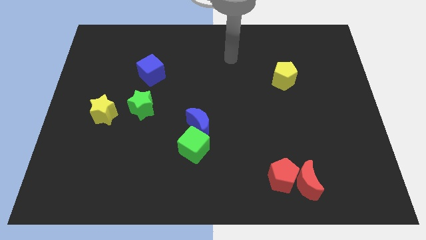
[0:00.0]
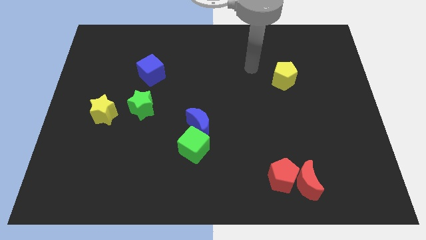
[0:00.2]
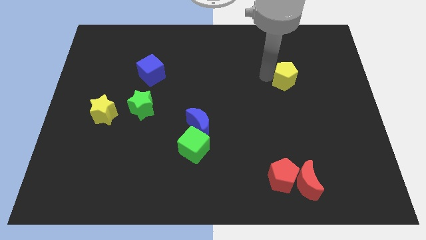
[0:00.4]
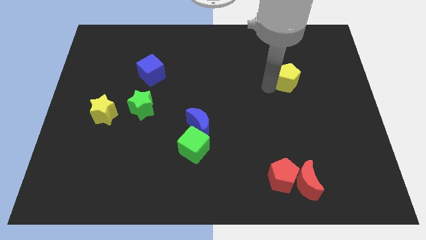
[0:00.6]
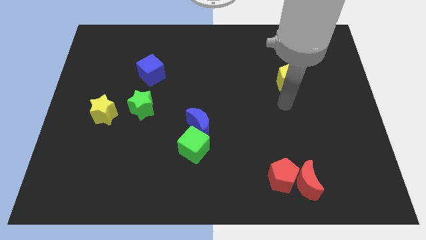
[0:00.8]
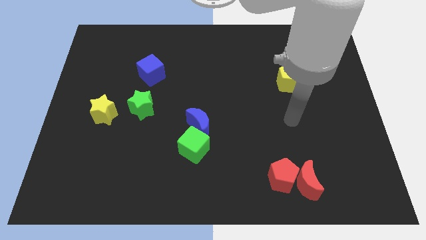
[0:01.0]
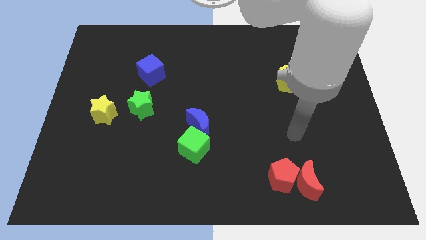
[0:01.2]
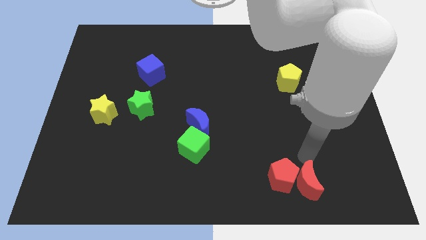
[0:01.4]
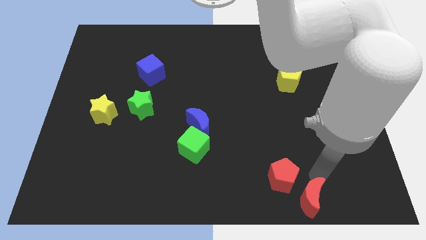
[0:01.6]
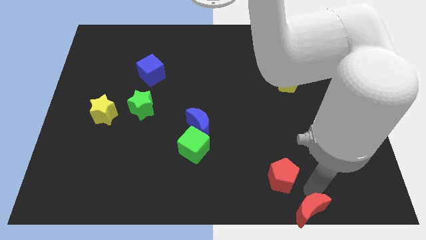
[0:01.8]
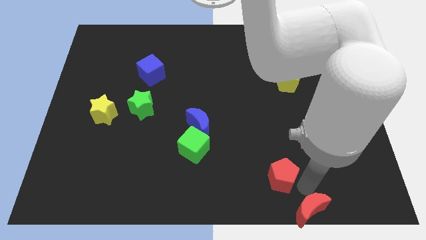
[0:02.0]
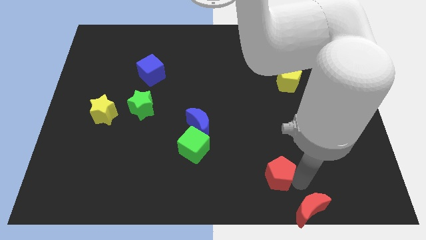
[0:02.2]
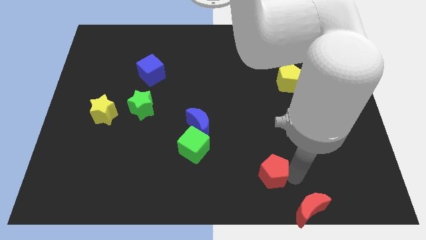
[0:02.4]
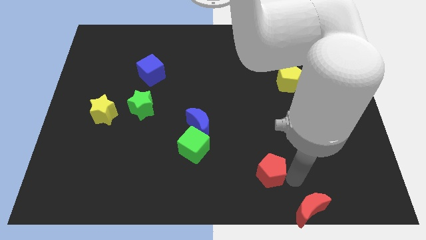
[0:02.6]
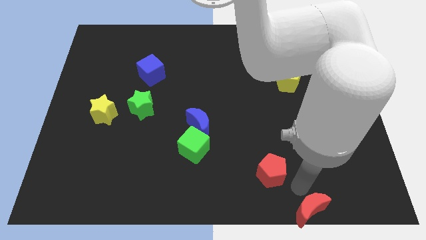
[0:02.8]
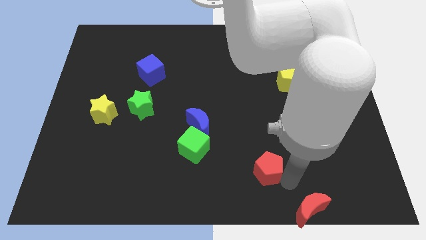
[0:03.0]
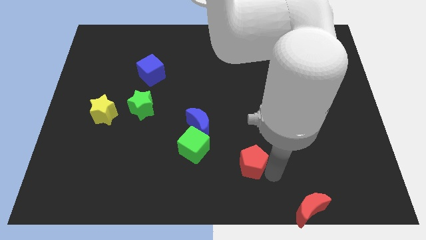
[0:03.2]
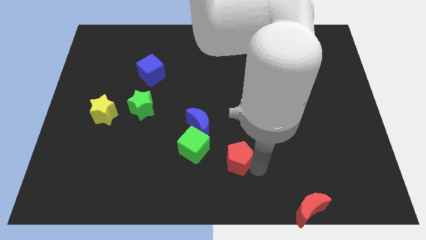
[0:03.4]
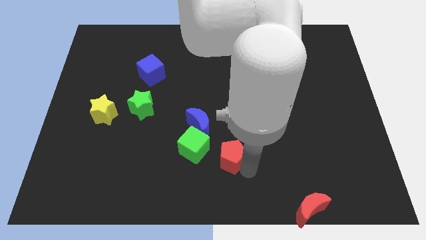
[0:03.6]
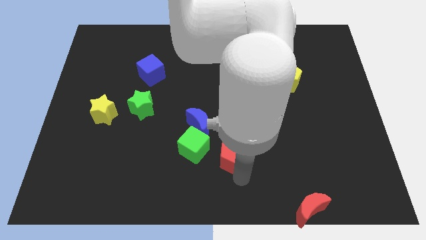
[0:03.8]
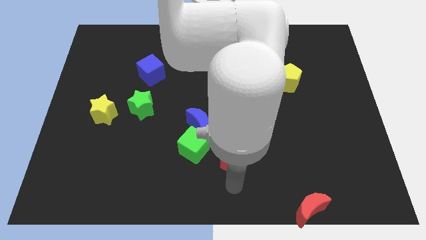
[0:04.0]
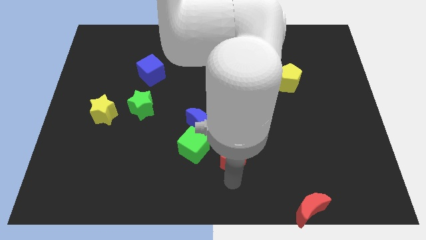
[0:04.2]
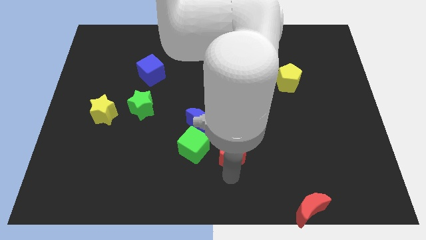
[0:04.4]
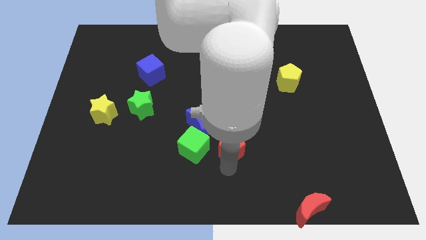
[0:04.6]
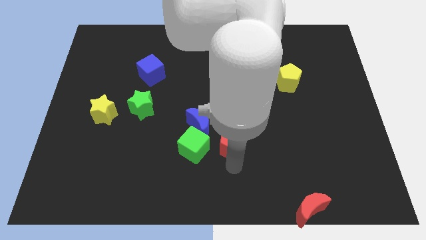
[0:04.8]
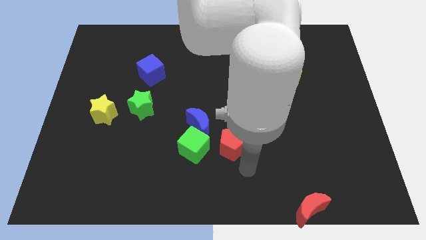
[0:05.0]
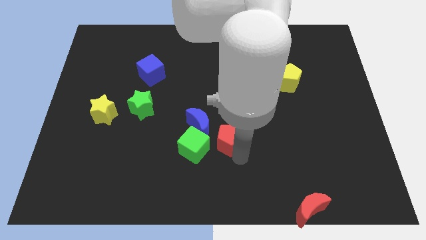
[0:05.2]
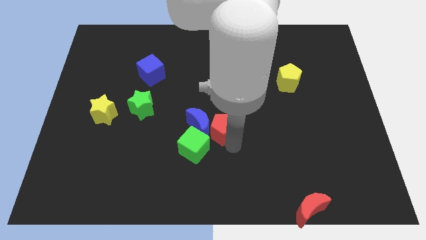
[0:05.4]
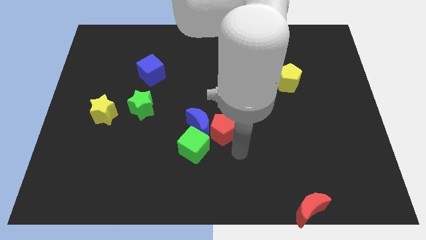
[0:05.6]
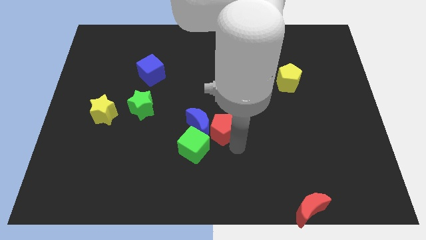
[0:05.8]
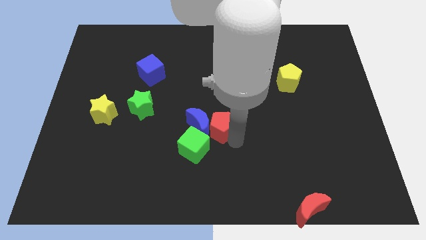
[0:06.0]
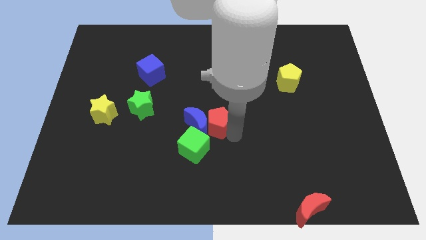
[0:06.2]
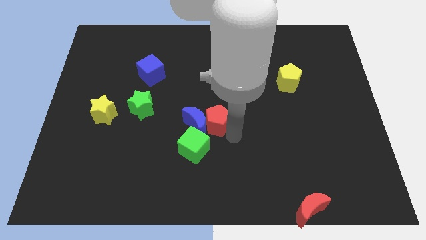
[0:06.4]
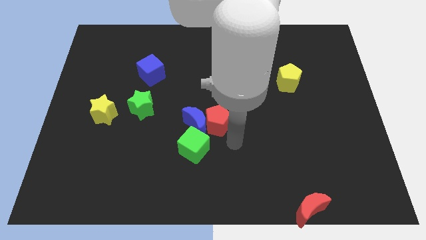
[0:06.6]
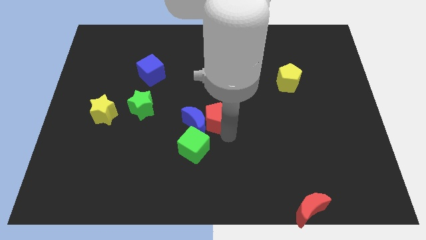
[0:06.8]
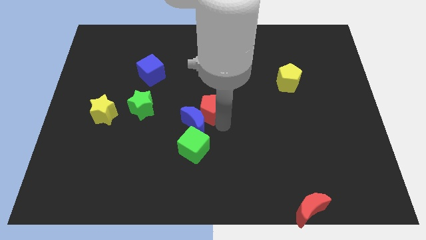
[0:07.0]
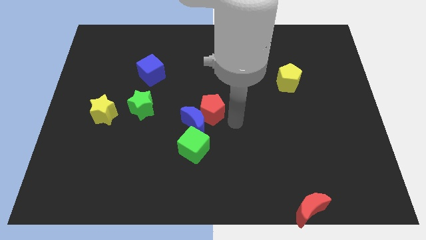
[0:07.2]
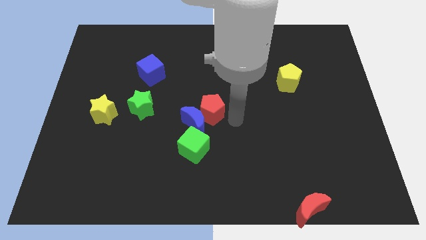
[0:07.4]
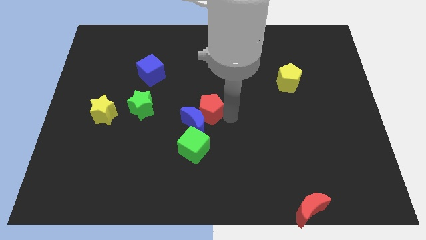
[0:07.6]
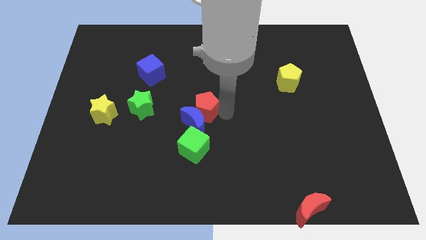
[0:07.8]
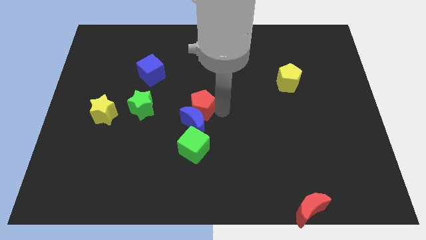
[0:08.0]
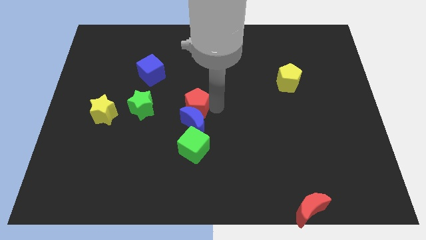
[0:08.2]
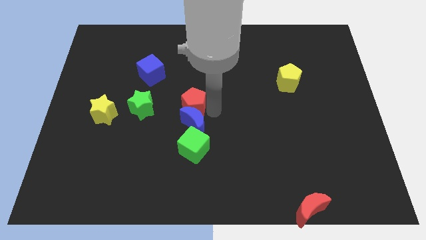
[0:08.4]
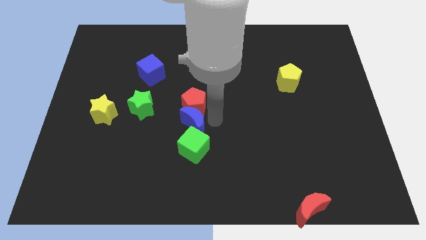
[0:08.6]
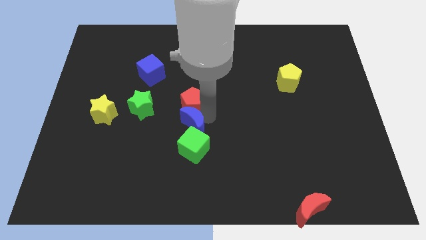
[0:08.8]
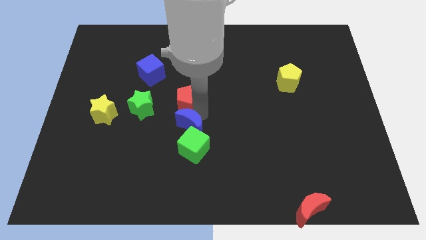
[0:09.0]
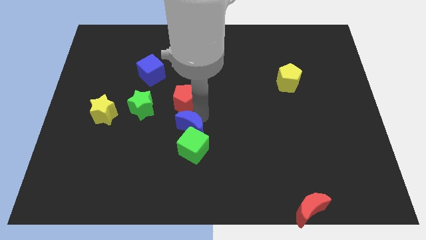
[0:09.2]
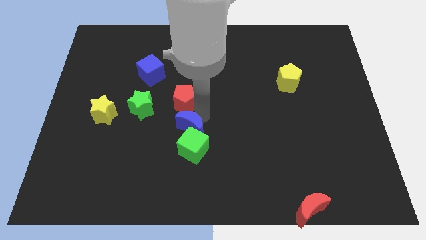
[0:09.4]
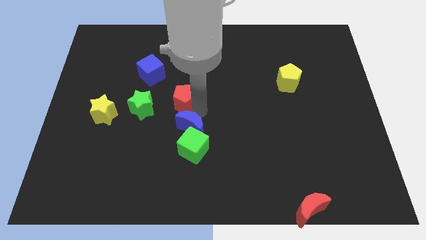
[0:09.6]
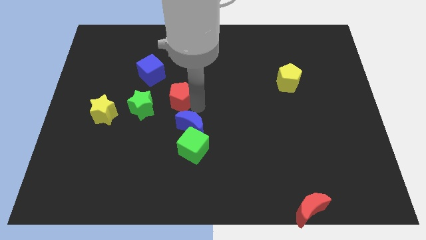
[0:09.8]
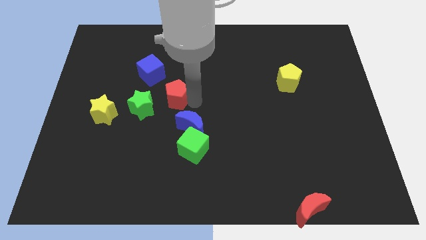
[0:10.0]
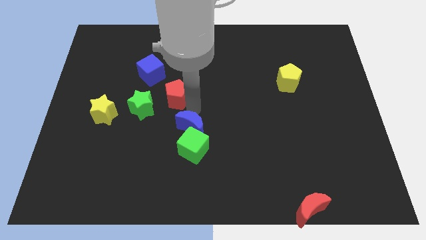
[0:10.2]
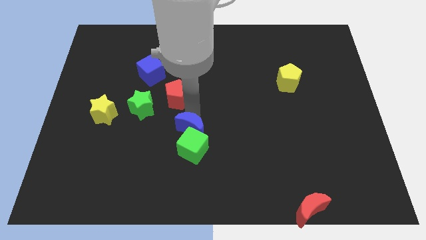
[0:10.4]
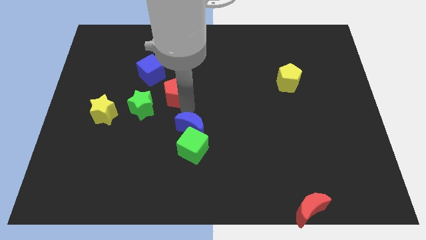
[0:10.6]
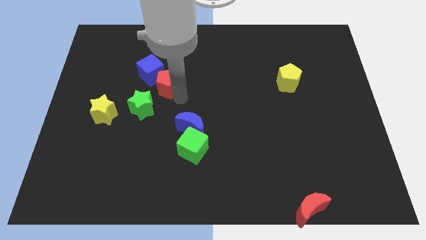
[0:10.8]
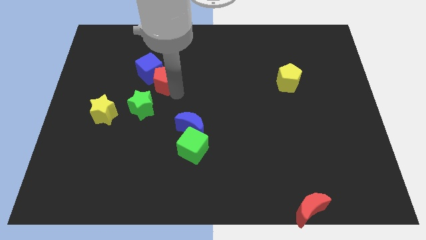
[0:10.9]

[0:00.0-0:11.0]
slide the red pentagon towards the blue cube

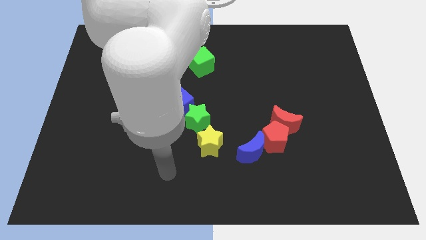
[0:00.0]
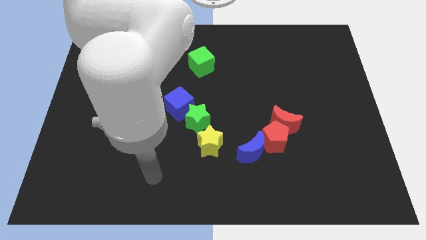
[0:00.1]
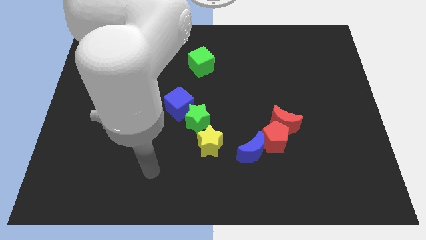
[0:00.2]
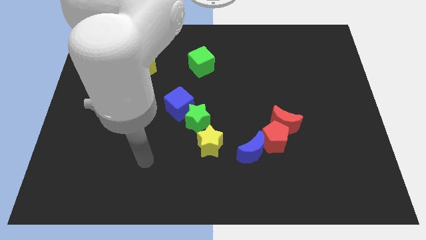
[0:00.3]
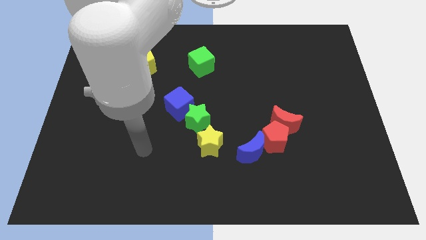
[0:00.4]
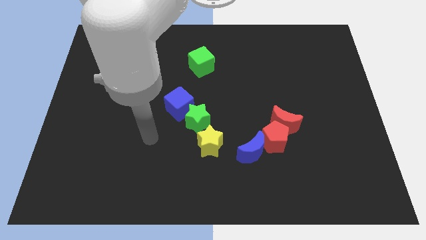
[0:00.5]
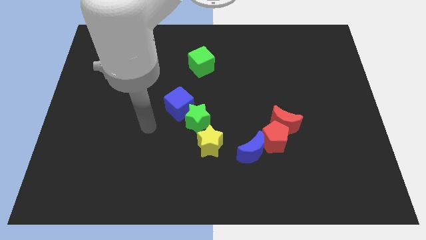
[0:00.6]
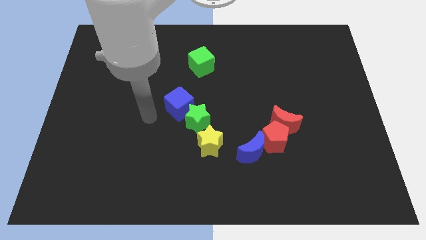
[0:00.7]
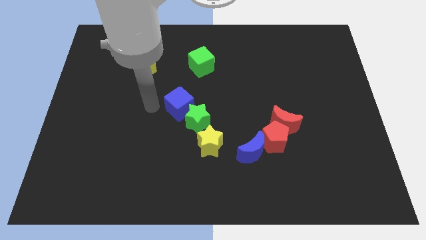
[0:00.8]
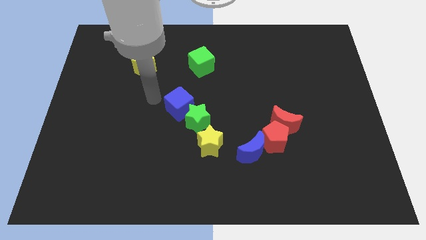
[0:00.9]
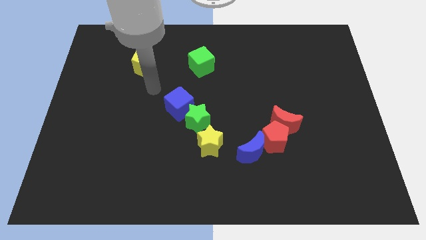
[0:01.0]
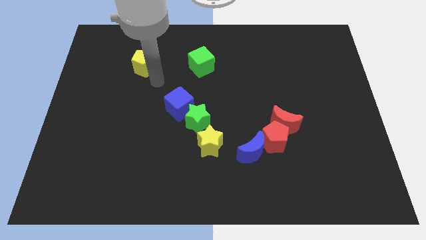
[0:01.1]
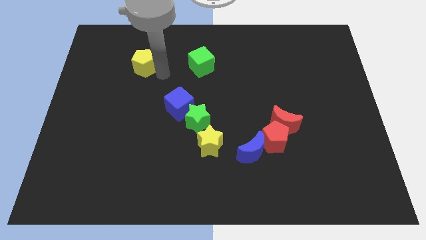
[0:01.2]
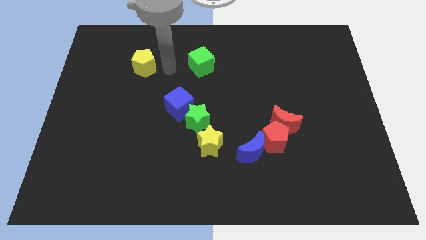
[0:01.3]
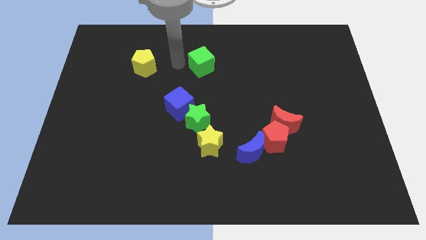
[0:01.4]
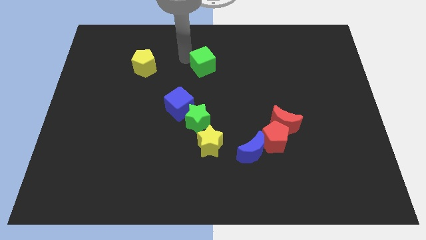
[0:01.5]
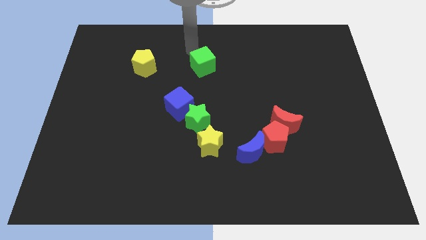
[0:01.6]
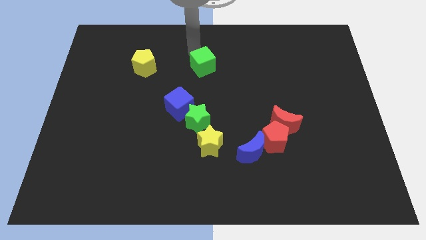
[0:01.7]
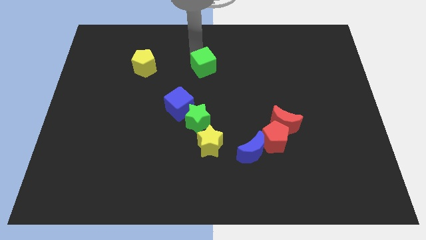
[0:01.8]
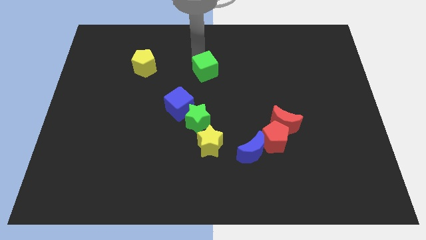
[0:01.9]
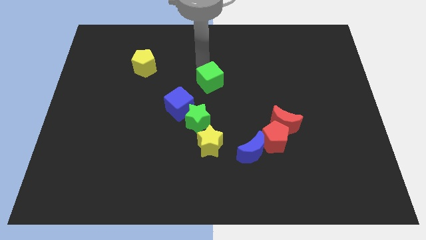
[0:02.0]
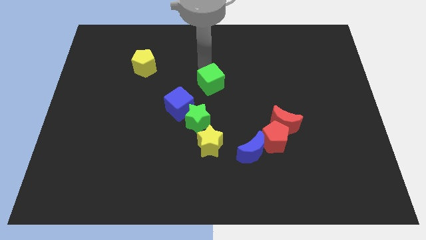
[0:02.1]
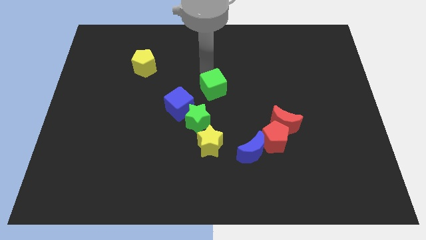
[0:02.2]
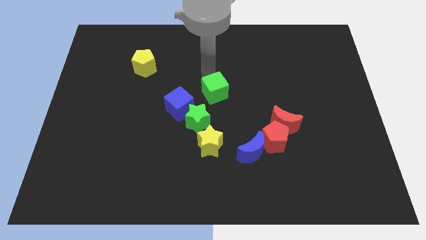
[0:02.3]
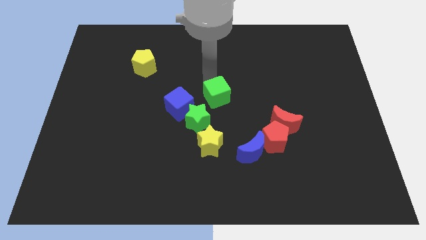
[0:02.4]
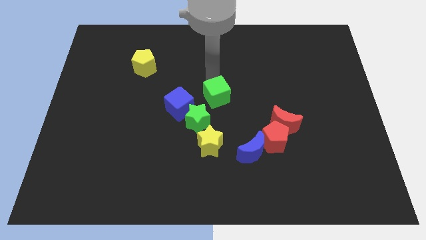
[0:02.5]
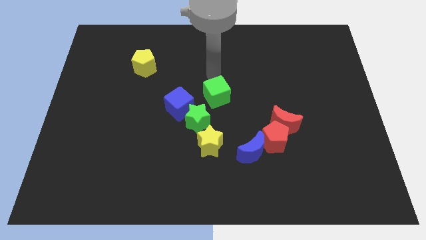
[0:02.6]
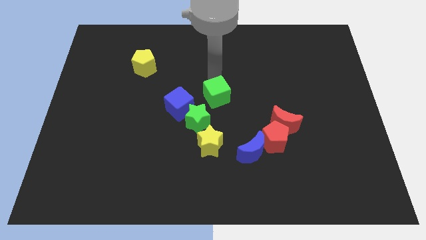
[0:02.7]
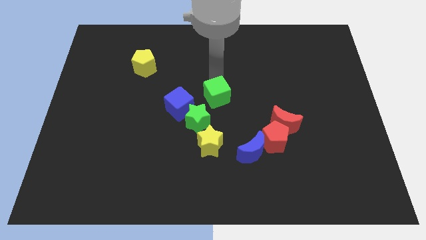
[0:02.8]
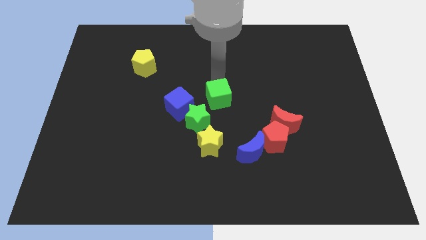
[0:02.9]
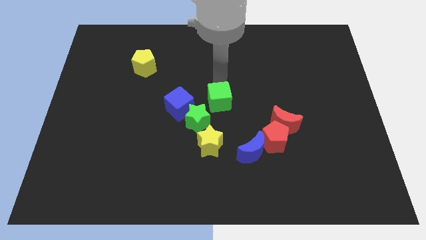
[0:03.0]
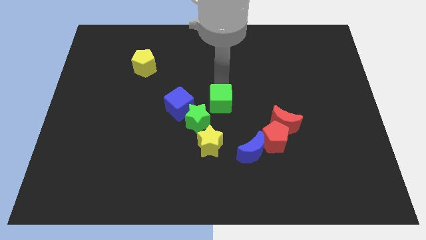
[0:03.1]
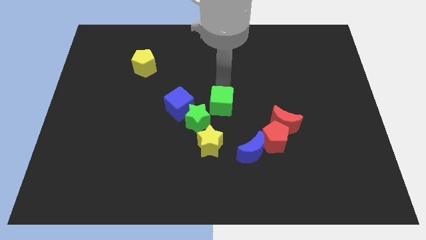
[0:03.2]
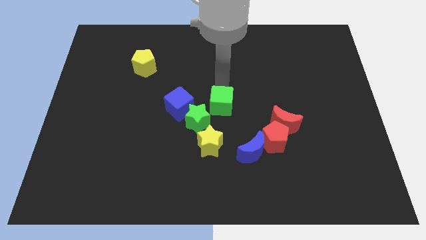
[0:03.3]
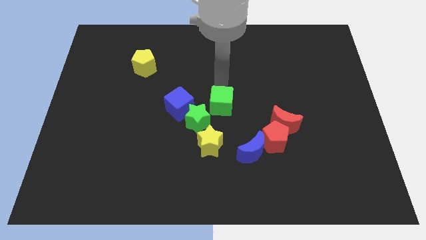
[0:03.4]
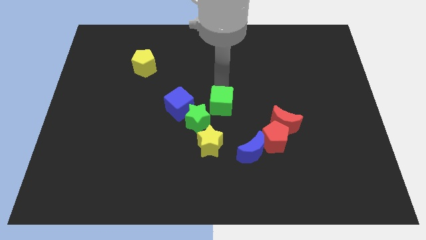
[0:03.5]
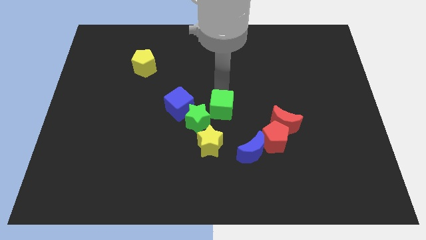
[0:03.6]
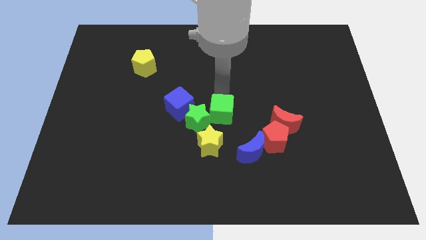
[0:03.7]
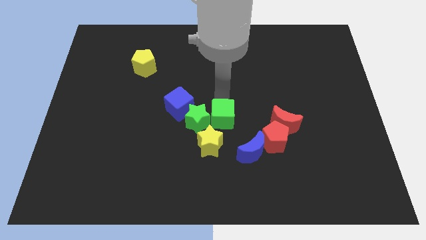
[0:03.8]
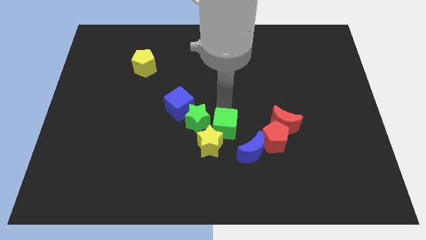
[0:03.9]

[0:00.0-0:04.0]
move the green cube to the yellow star
